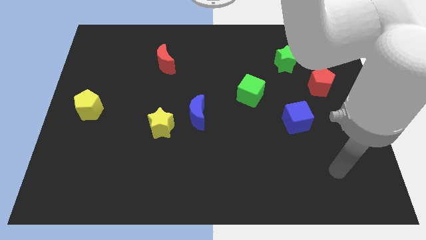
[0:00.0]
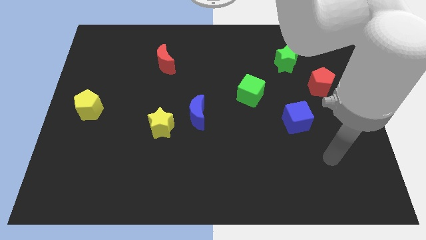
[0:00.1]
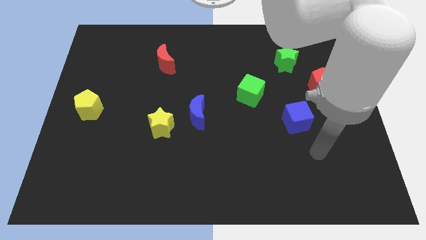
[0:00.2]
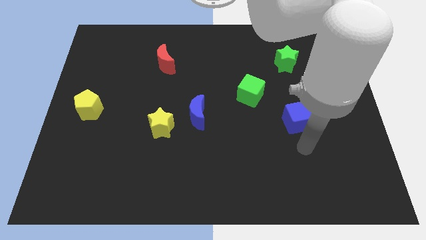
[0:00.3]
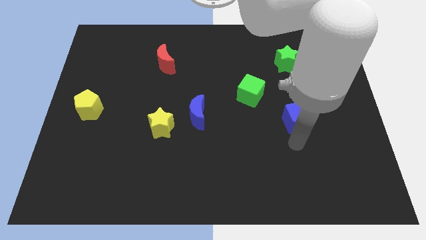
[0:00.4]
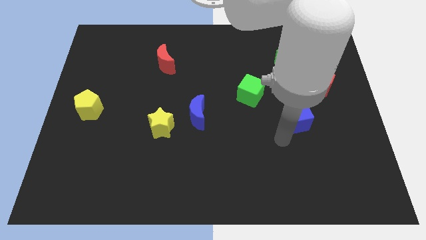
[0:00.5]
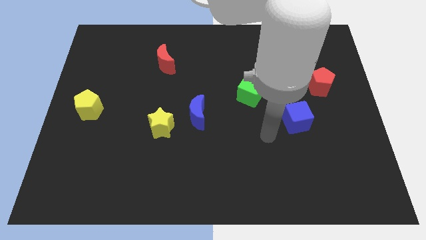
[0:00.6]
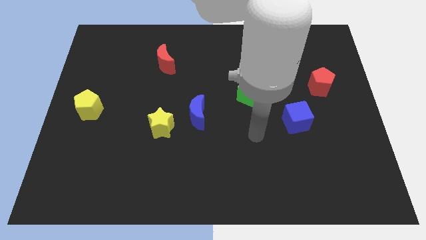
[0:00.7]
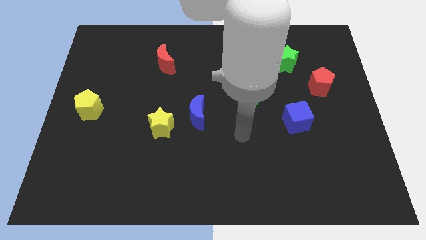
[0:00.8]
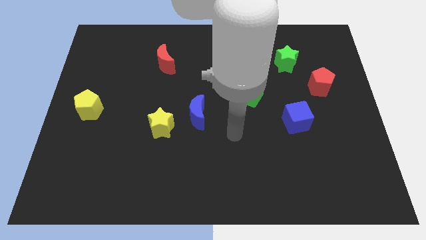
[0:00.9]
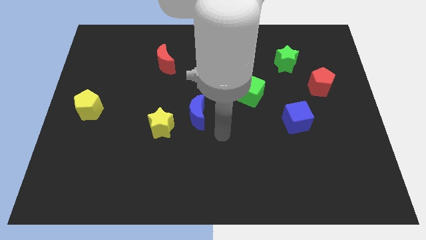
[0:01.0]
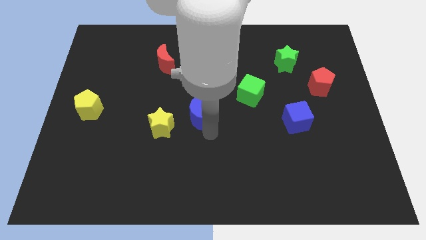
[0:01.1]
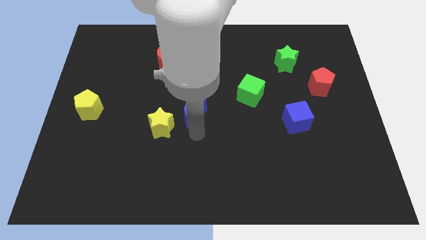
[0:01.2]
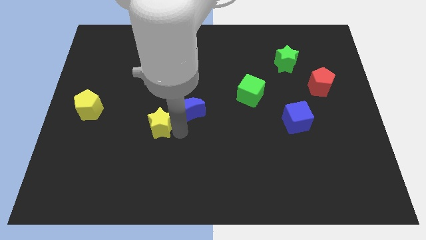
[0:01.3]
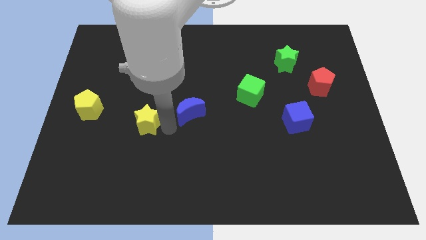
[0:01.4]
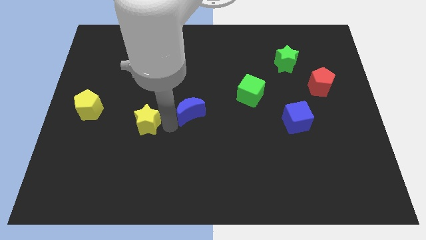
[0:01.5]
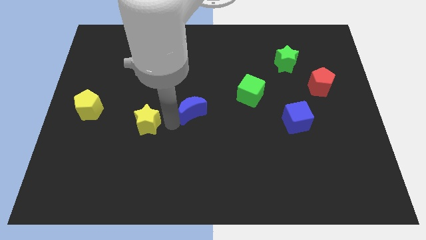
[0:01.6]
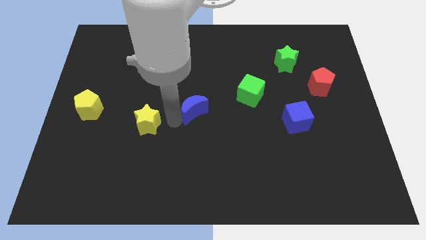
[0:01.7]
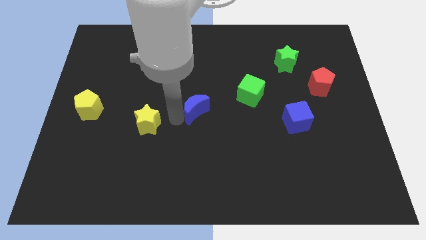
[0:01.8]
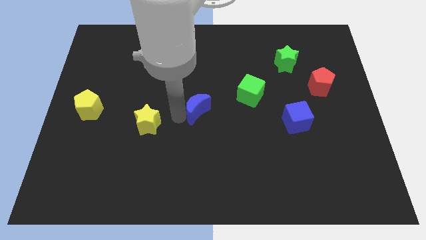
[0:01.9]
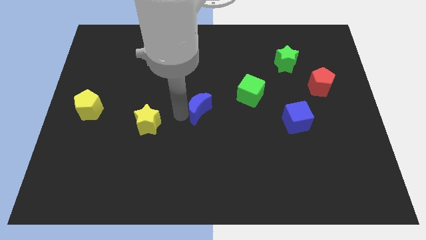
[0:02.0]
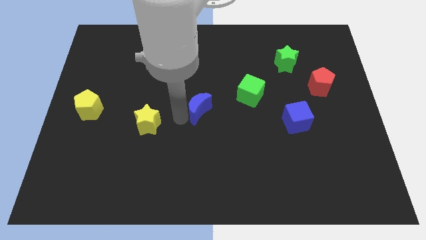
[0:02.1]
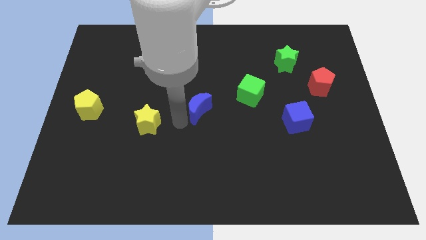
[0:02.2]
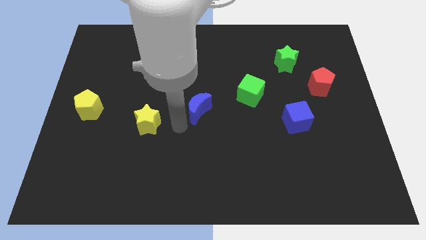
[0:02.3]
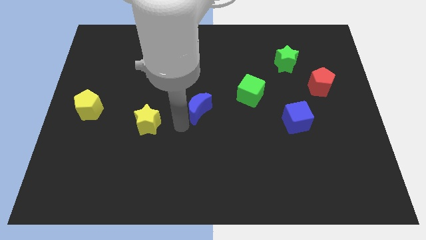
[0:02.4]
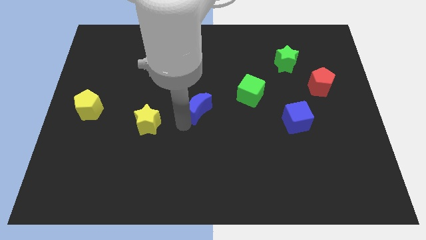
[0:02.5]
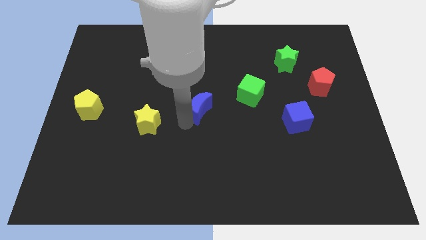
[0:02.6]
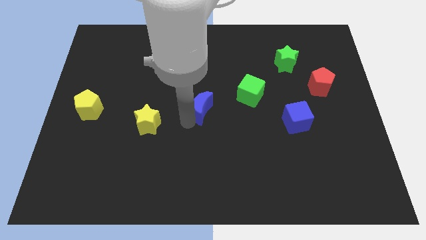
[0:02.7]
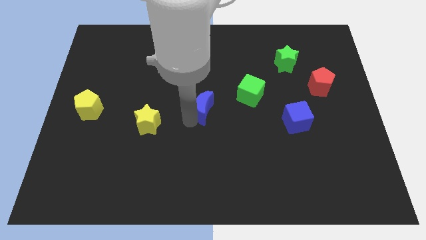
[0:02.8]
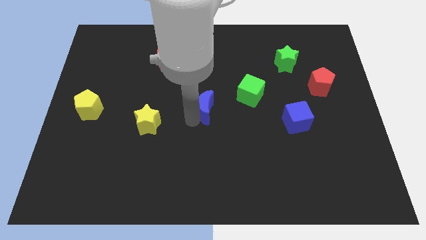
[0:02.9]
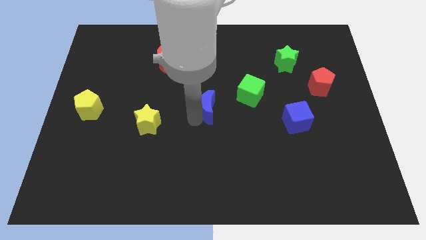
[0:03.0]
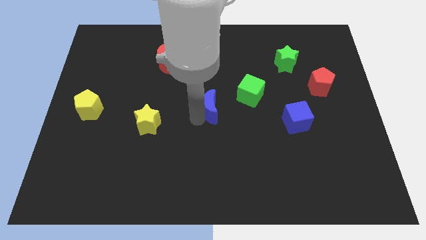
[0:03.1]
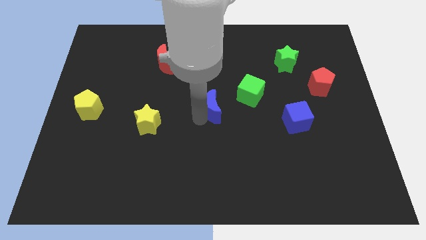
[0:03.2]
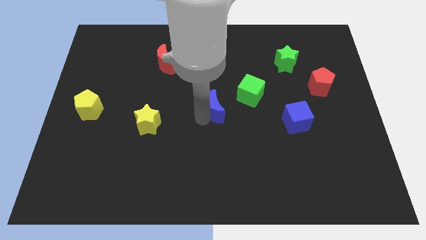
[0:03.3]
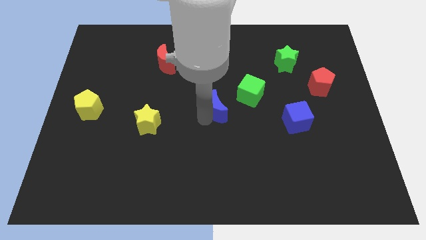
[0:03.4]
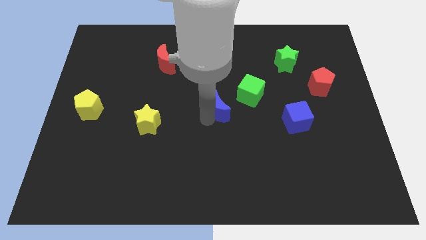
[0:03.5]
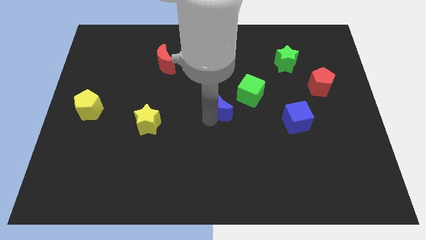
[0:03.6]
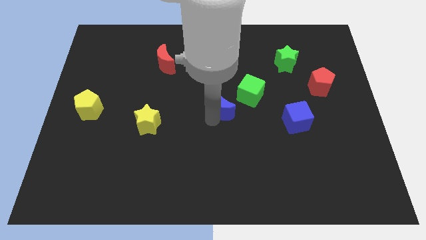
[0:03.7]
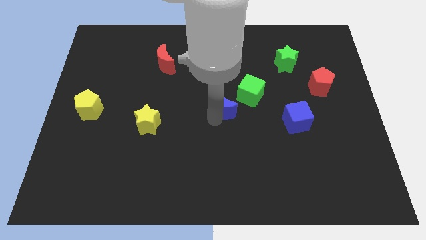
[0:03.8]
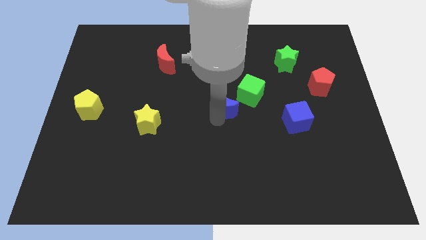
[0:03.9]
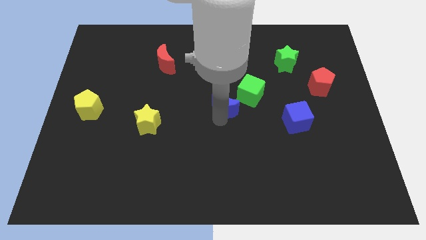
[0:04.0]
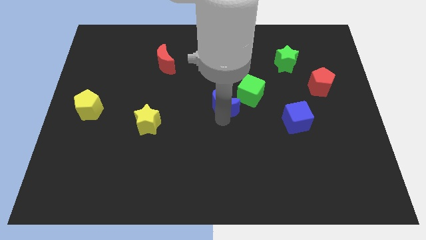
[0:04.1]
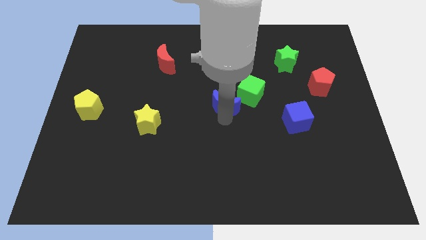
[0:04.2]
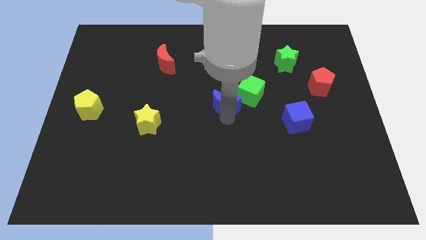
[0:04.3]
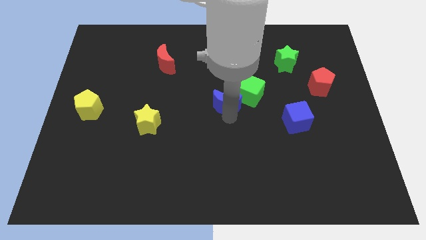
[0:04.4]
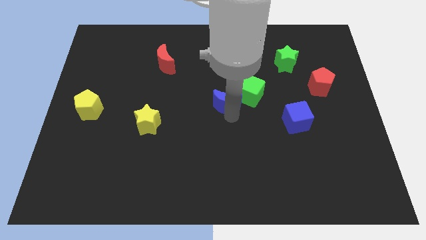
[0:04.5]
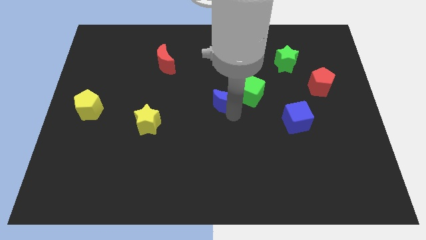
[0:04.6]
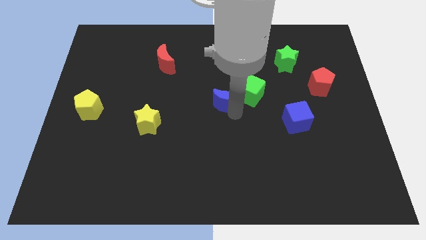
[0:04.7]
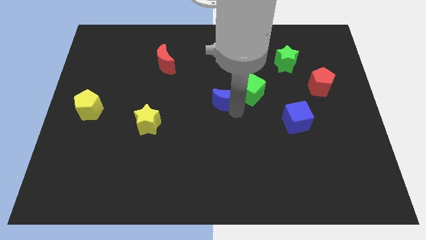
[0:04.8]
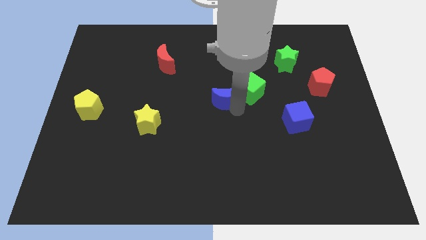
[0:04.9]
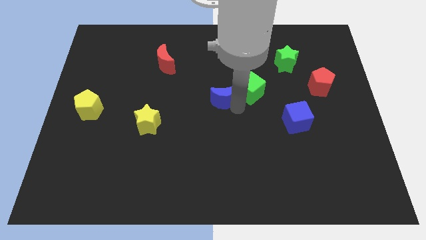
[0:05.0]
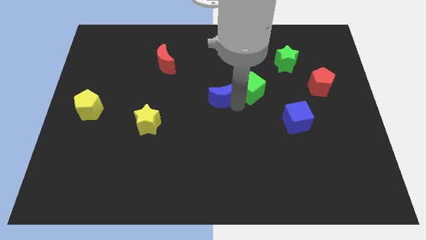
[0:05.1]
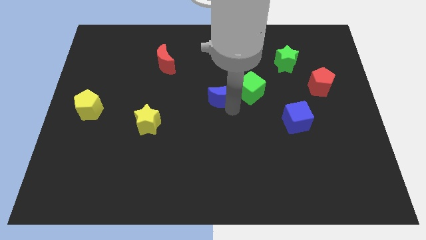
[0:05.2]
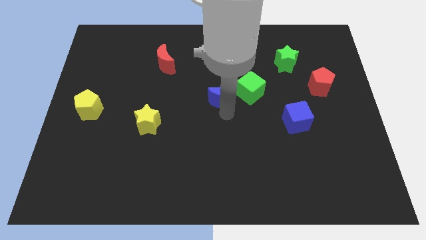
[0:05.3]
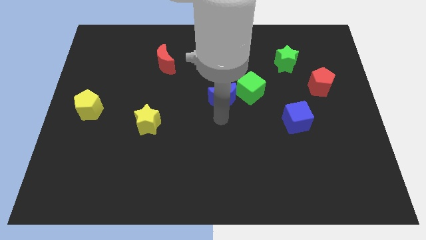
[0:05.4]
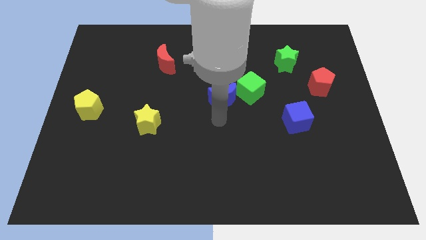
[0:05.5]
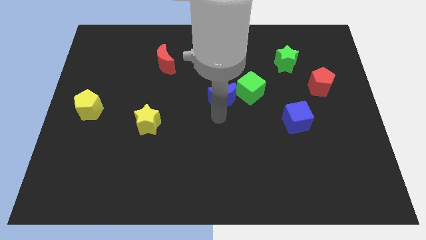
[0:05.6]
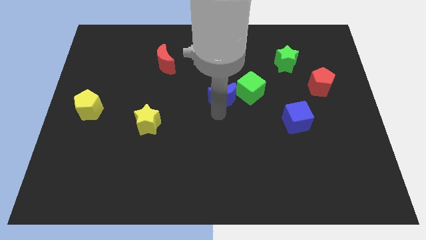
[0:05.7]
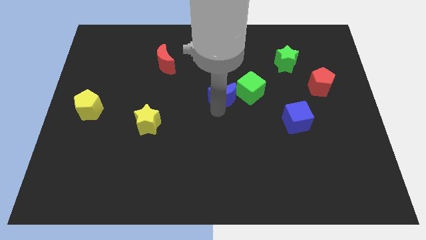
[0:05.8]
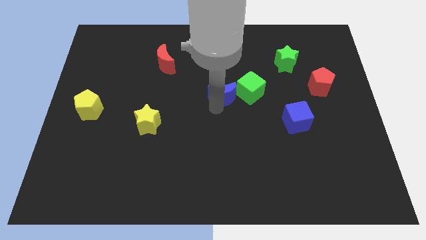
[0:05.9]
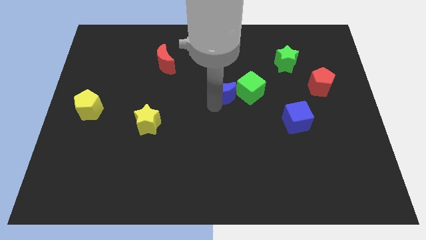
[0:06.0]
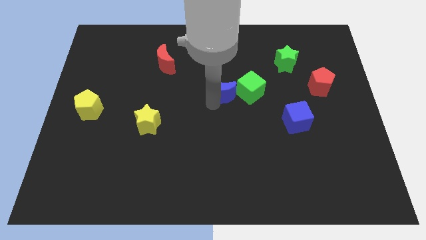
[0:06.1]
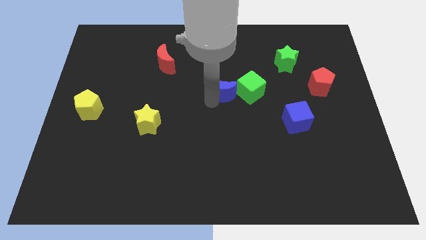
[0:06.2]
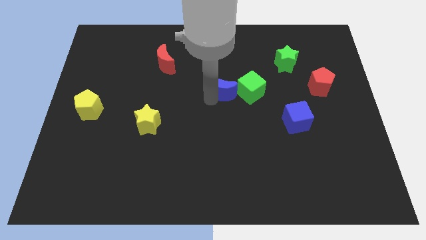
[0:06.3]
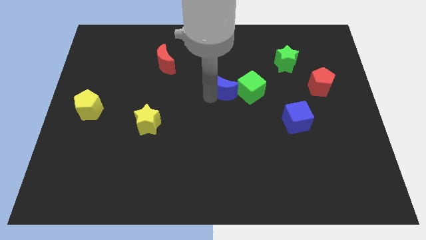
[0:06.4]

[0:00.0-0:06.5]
move the blue moon to the top left of the green cube

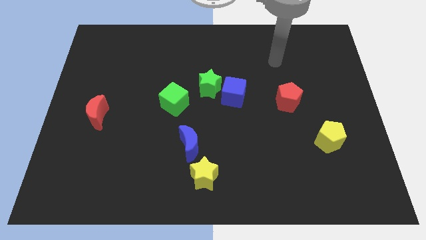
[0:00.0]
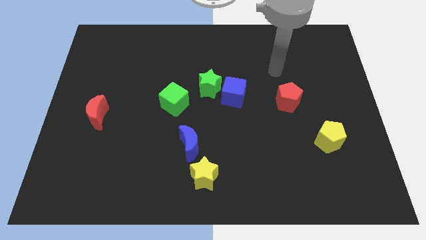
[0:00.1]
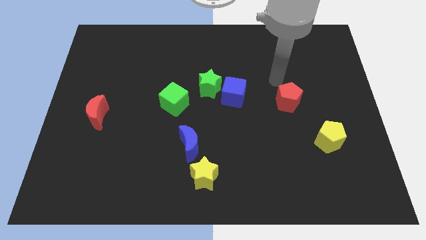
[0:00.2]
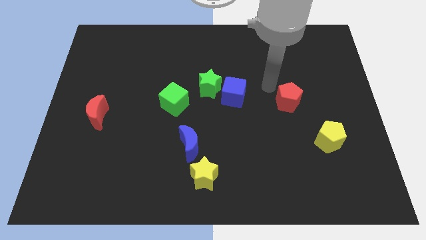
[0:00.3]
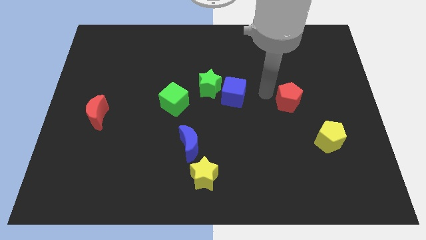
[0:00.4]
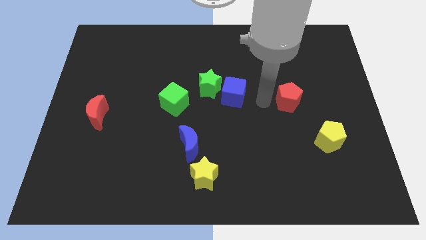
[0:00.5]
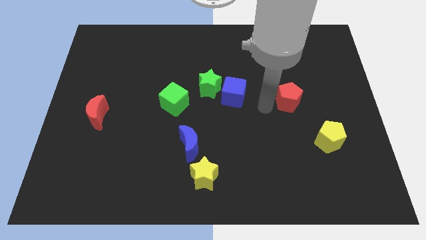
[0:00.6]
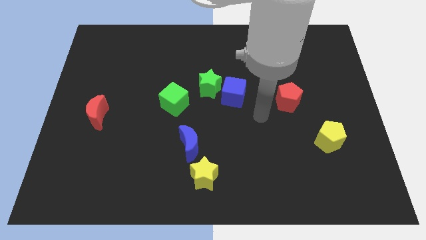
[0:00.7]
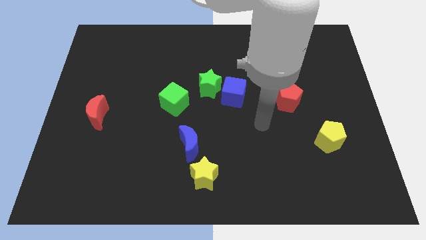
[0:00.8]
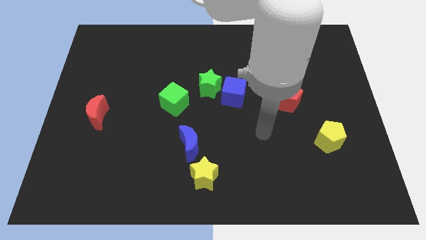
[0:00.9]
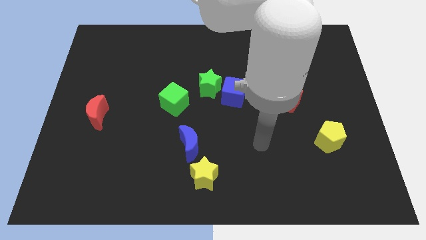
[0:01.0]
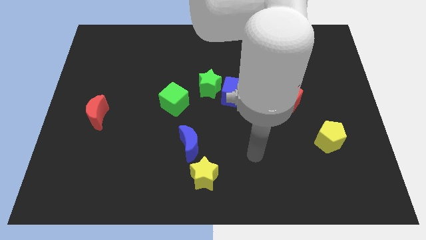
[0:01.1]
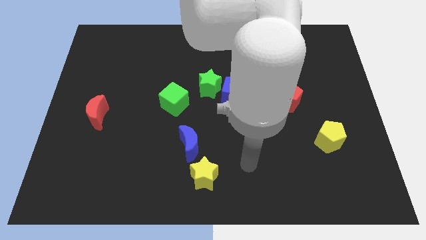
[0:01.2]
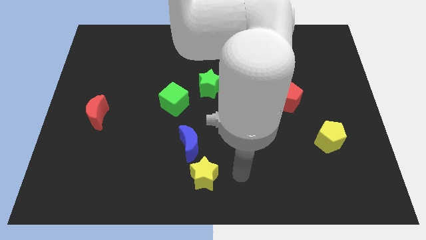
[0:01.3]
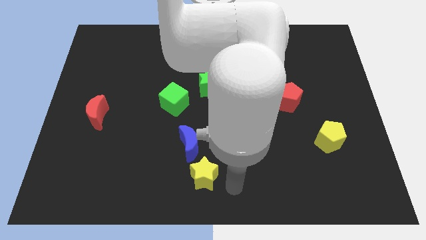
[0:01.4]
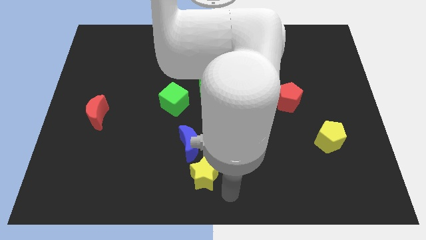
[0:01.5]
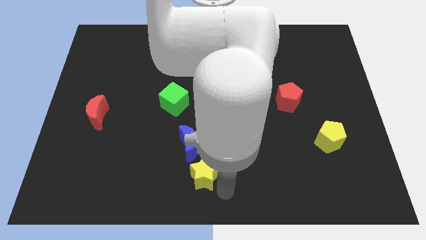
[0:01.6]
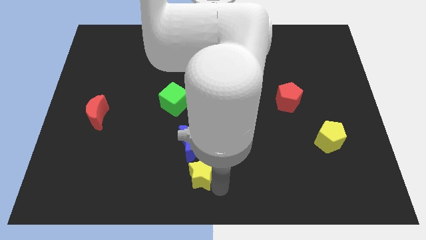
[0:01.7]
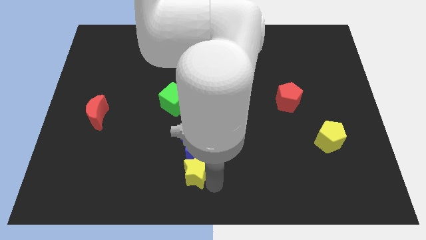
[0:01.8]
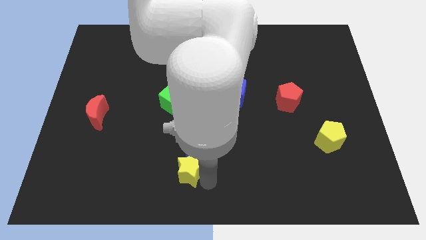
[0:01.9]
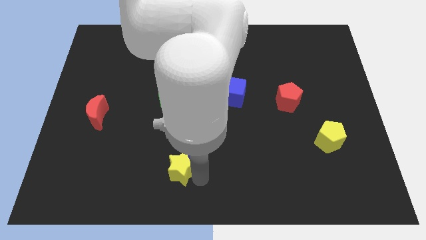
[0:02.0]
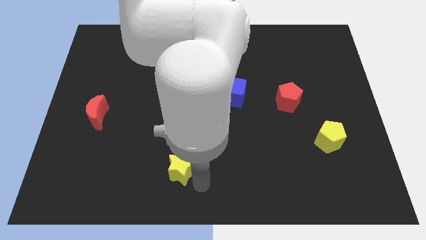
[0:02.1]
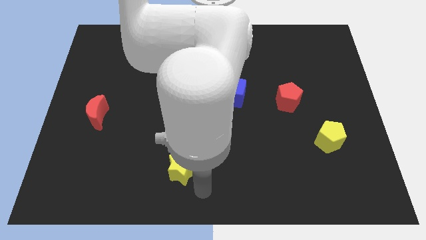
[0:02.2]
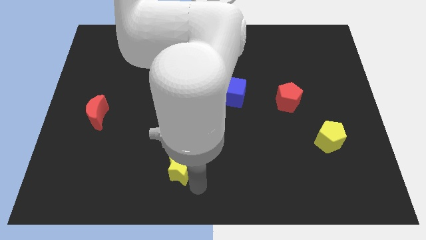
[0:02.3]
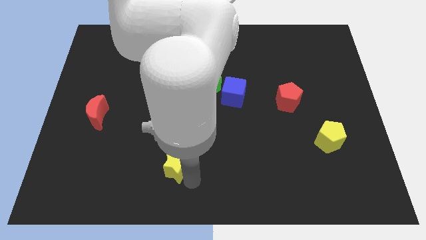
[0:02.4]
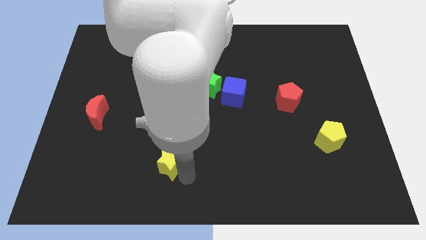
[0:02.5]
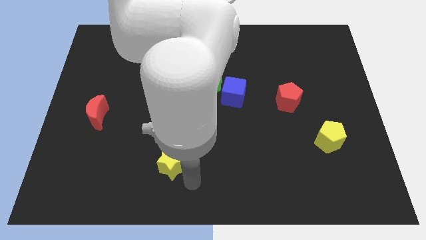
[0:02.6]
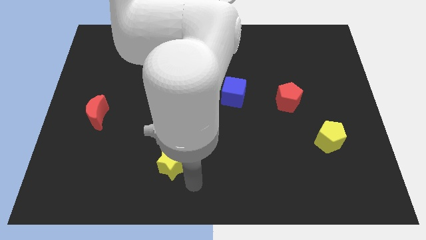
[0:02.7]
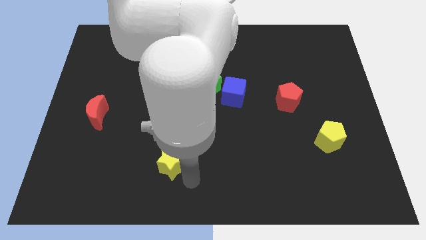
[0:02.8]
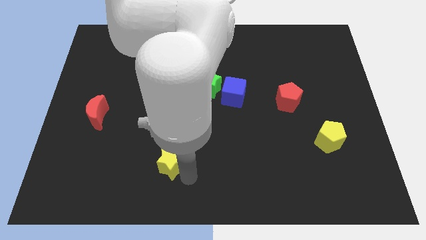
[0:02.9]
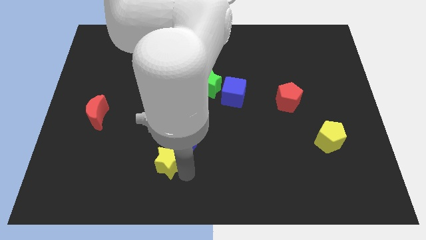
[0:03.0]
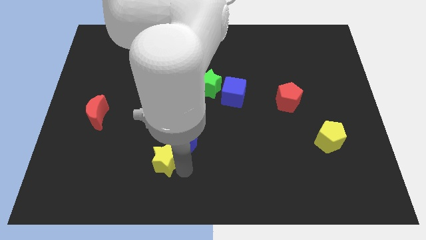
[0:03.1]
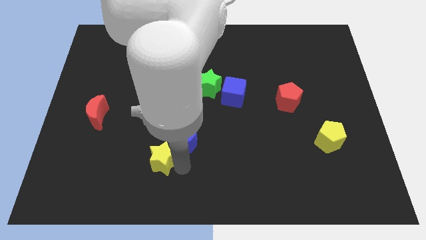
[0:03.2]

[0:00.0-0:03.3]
slide the yellow star to the left of the blue moon
